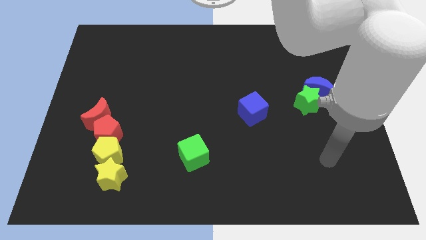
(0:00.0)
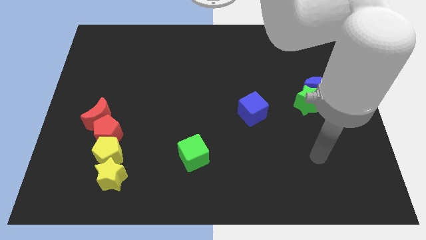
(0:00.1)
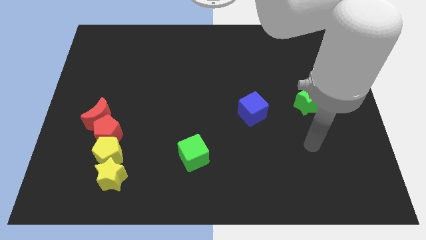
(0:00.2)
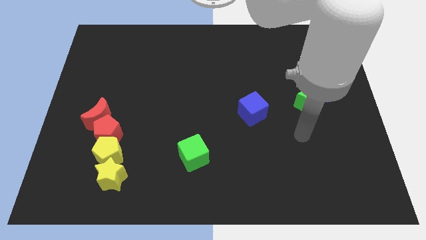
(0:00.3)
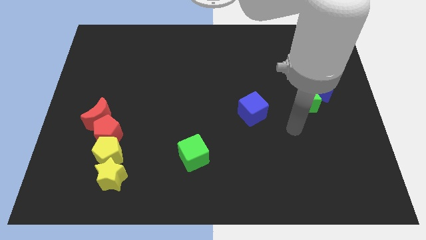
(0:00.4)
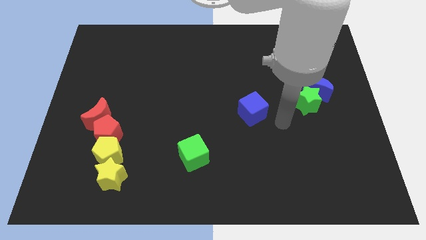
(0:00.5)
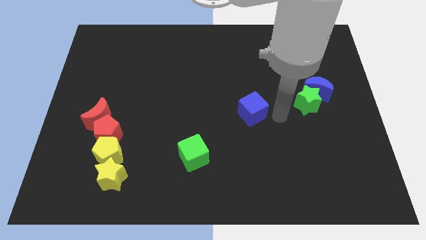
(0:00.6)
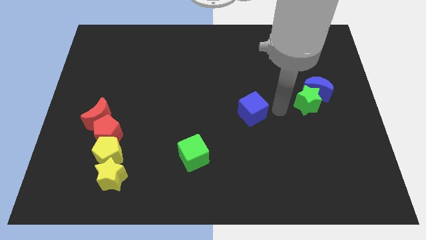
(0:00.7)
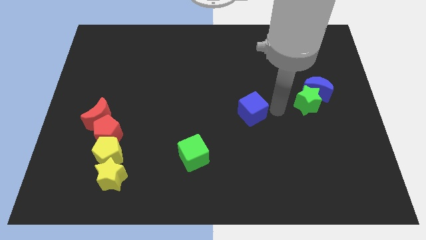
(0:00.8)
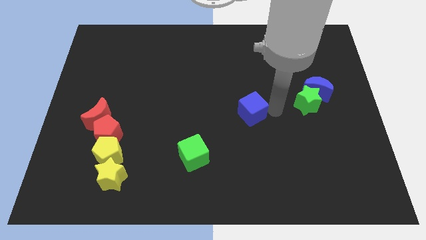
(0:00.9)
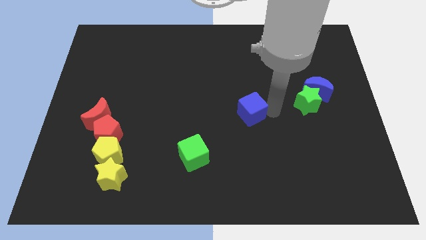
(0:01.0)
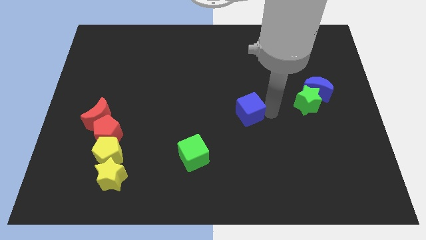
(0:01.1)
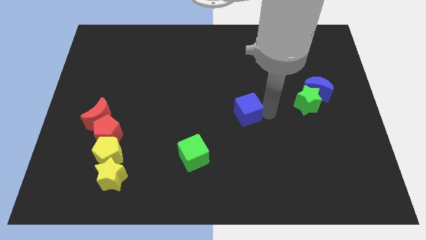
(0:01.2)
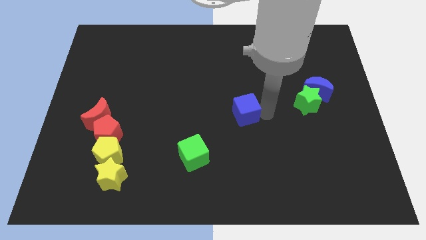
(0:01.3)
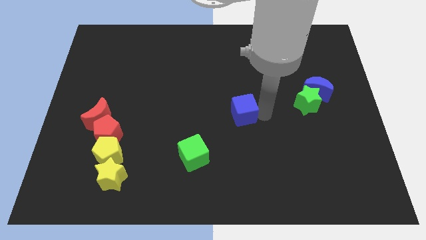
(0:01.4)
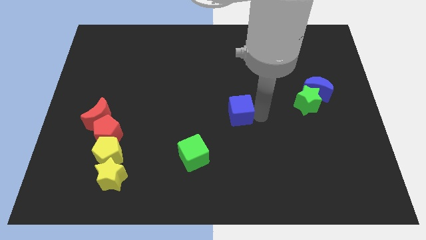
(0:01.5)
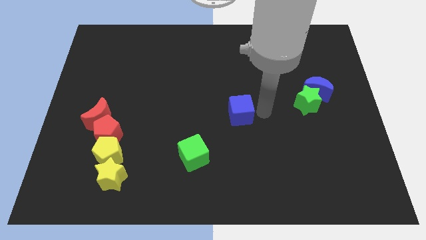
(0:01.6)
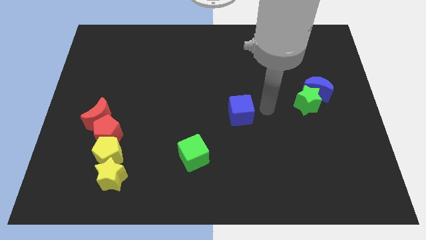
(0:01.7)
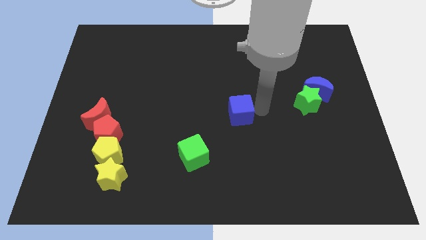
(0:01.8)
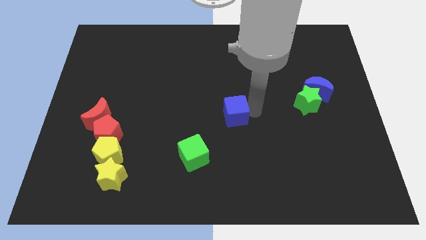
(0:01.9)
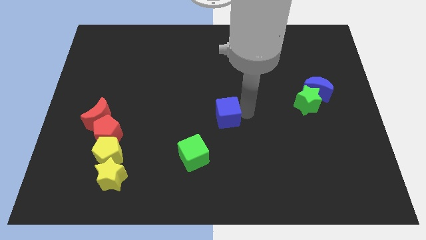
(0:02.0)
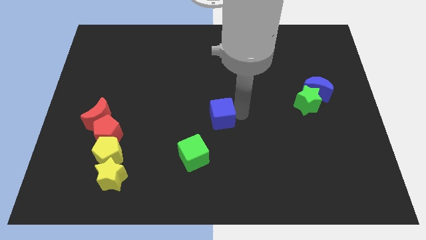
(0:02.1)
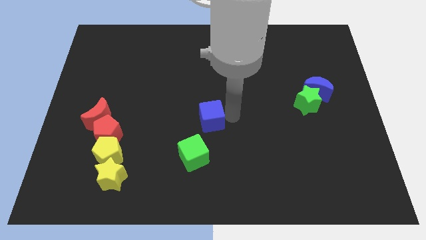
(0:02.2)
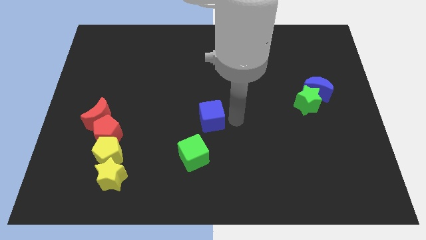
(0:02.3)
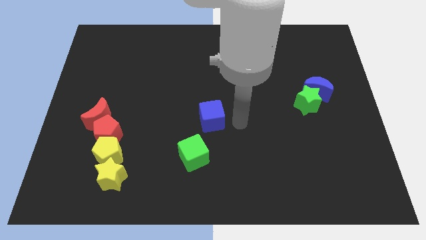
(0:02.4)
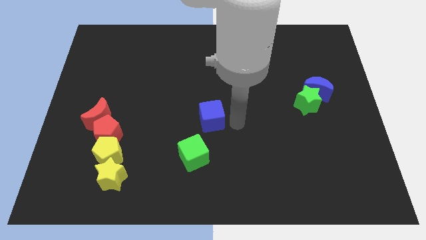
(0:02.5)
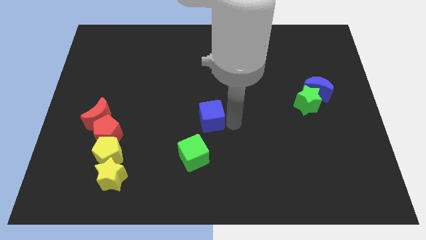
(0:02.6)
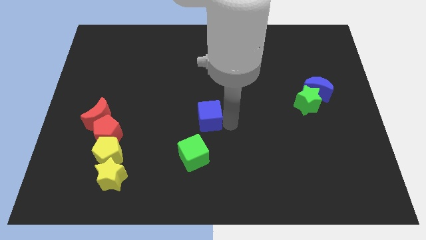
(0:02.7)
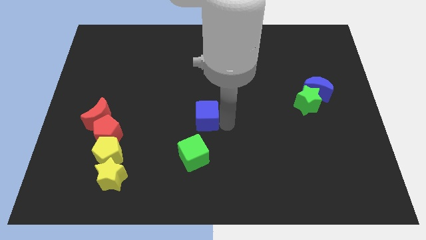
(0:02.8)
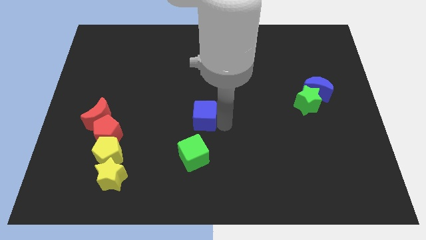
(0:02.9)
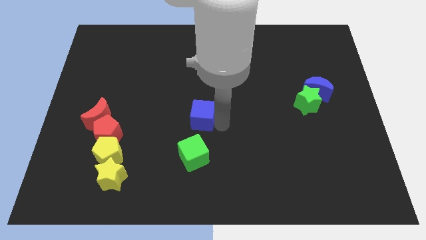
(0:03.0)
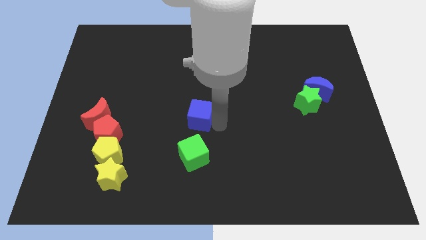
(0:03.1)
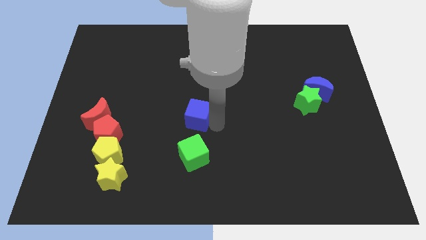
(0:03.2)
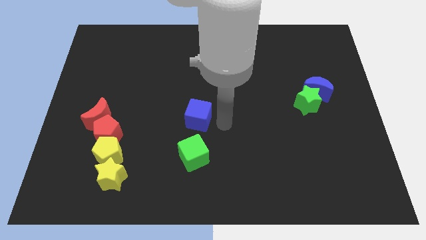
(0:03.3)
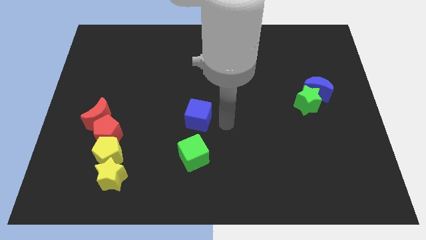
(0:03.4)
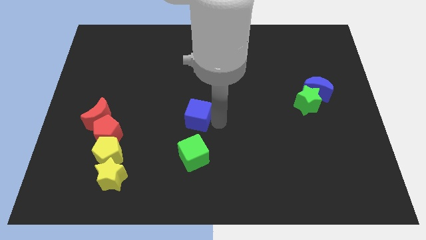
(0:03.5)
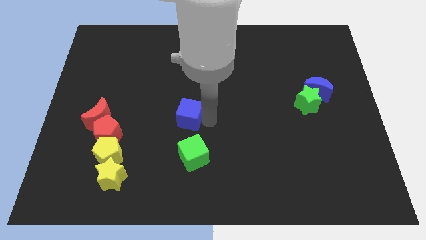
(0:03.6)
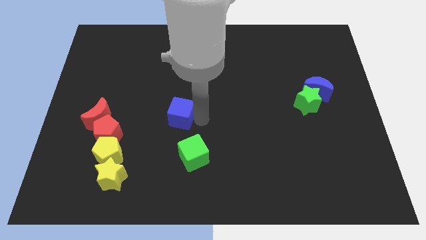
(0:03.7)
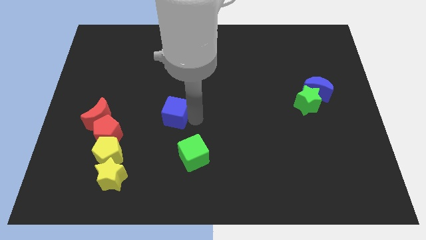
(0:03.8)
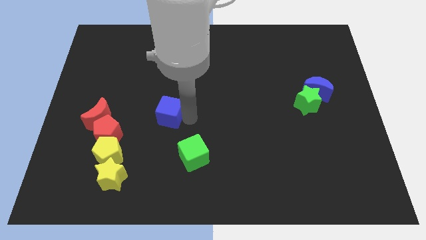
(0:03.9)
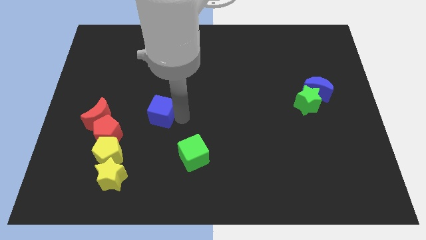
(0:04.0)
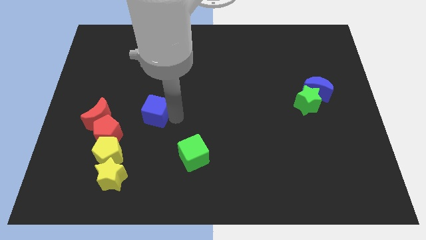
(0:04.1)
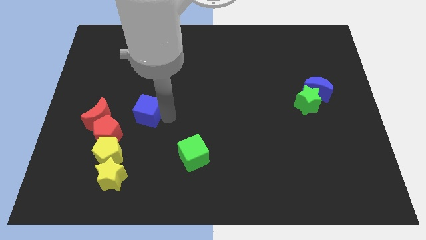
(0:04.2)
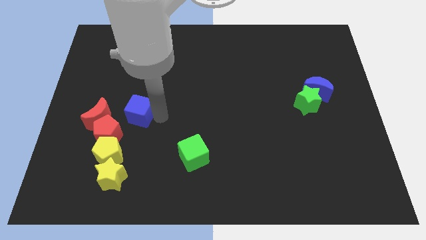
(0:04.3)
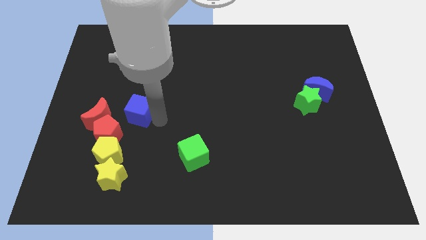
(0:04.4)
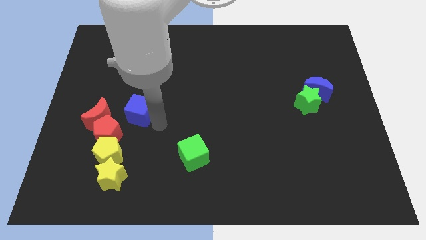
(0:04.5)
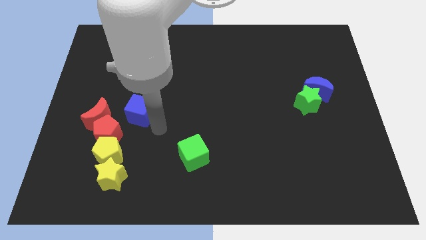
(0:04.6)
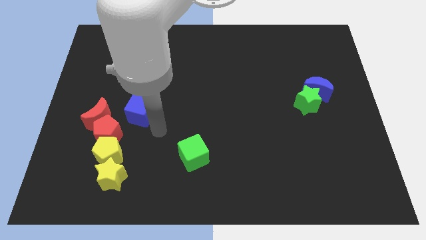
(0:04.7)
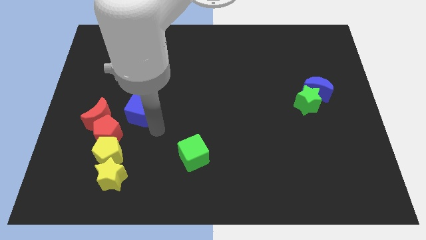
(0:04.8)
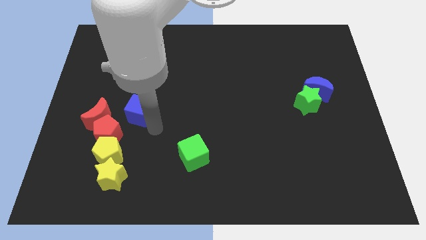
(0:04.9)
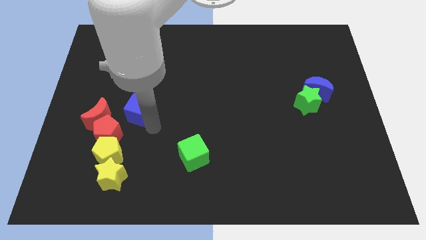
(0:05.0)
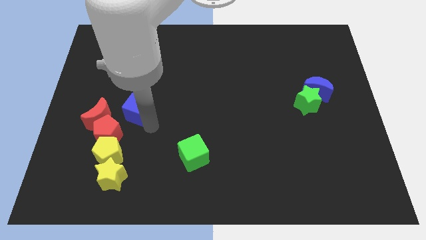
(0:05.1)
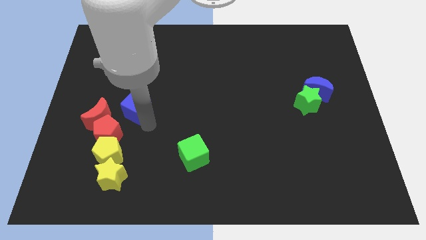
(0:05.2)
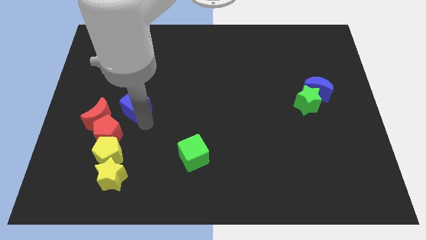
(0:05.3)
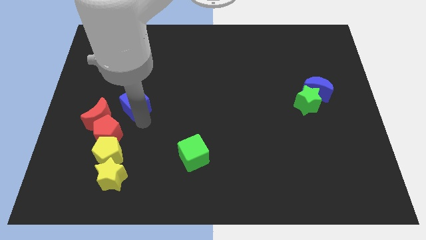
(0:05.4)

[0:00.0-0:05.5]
put the blue cube to the top side of the red pentagon

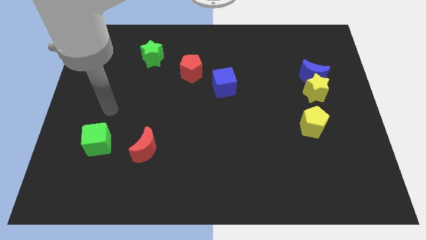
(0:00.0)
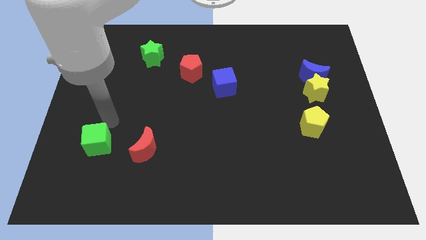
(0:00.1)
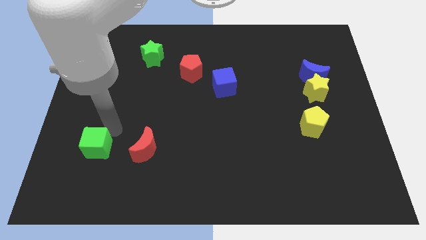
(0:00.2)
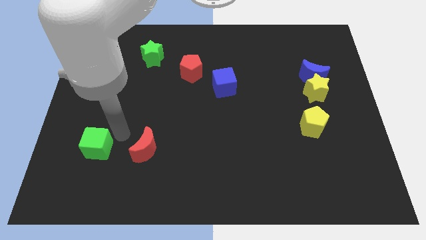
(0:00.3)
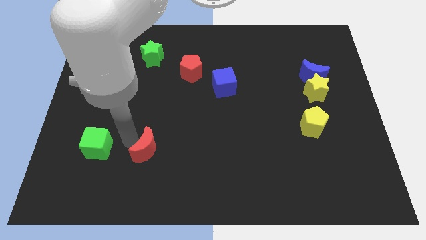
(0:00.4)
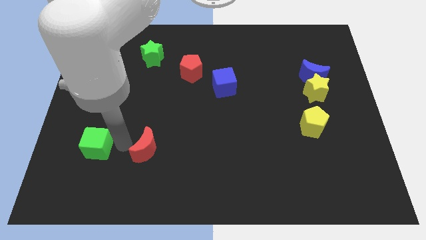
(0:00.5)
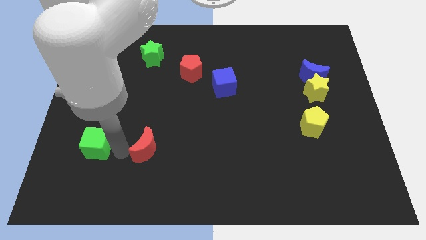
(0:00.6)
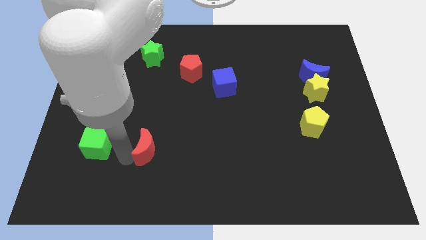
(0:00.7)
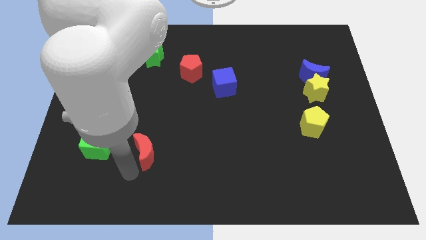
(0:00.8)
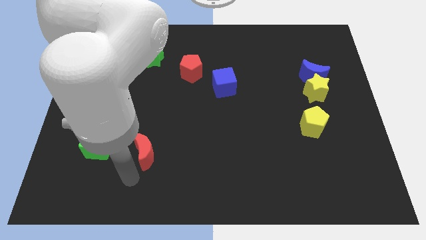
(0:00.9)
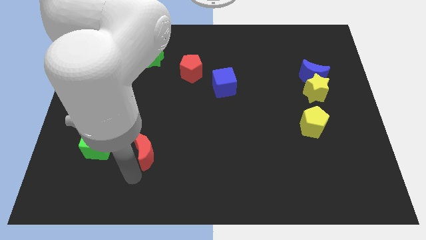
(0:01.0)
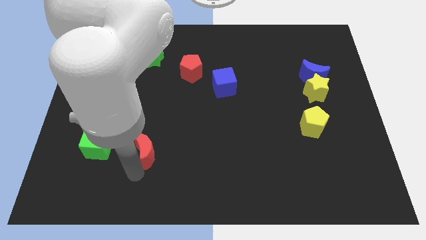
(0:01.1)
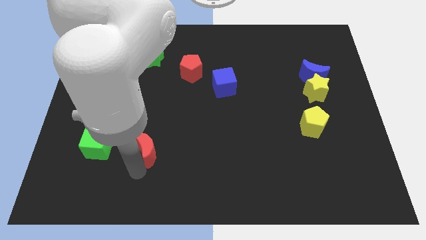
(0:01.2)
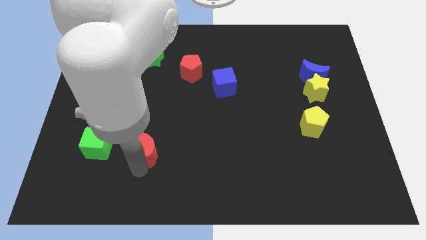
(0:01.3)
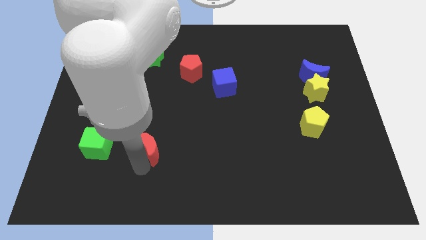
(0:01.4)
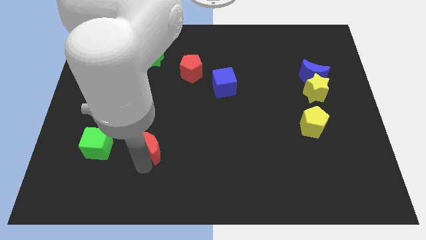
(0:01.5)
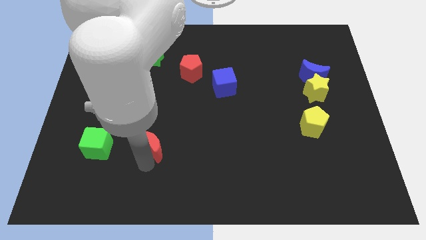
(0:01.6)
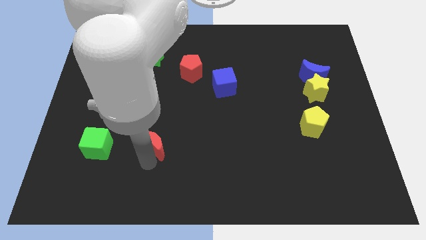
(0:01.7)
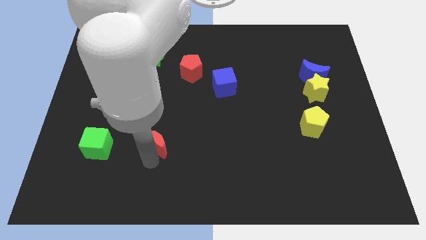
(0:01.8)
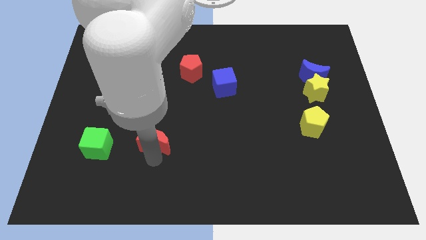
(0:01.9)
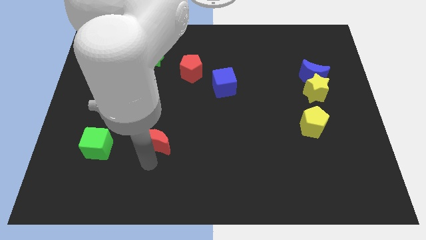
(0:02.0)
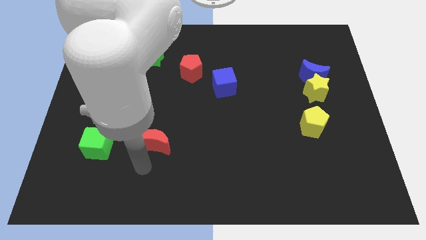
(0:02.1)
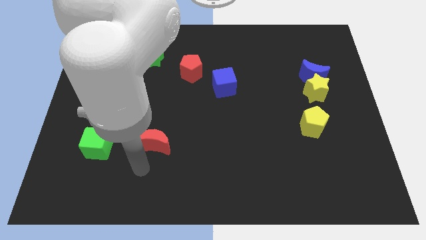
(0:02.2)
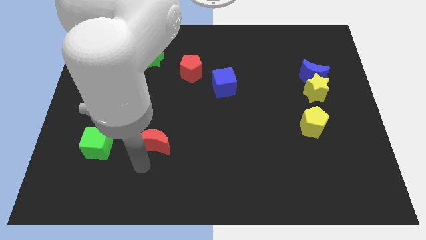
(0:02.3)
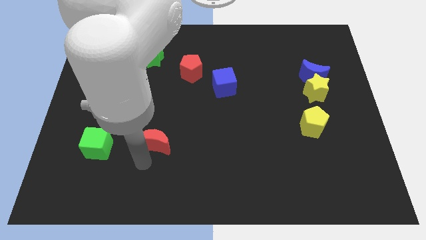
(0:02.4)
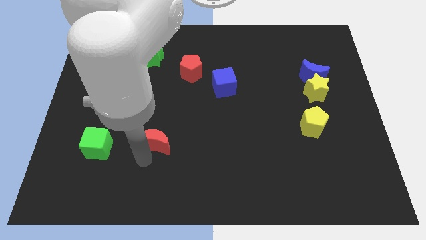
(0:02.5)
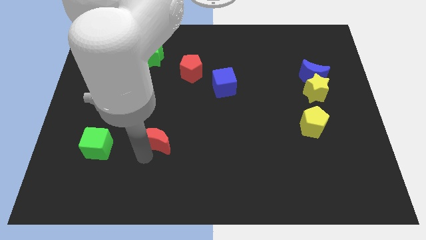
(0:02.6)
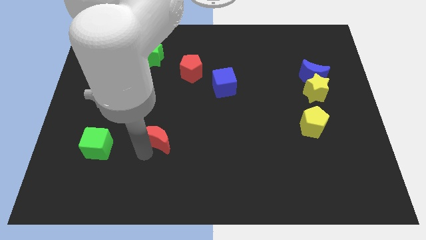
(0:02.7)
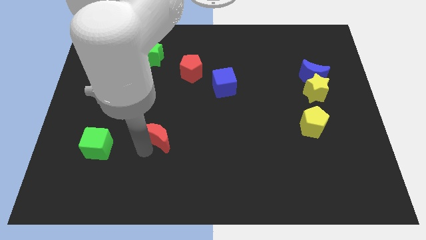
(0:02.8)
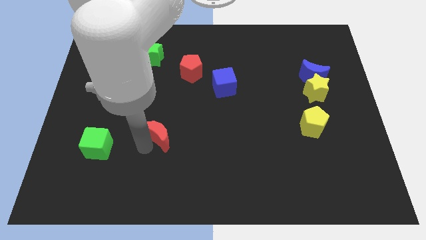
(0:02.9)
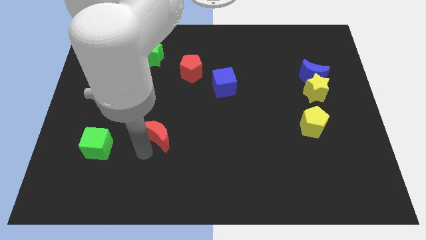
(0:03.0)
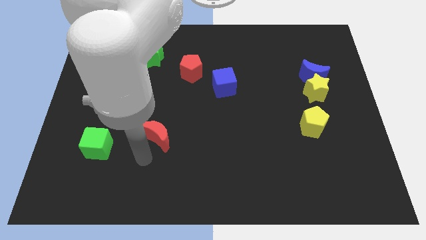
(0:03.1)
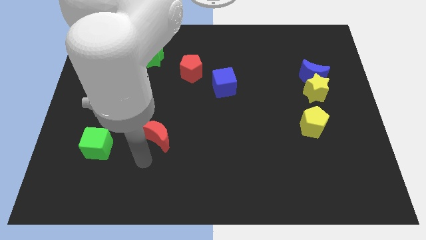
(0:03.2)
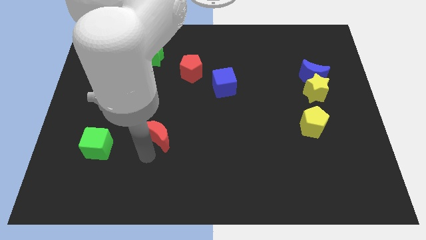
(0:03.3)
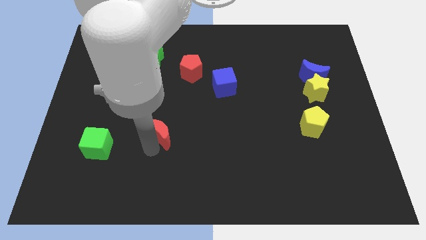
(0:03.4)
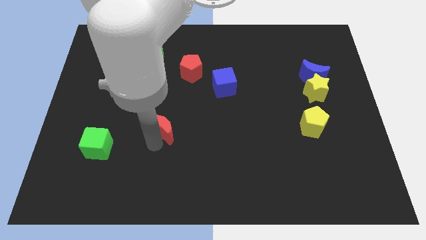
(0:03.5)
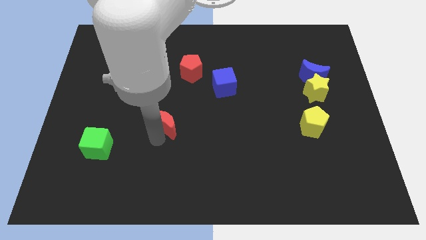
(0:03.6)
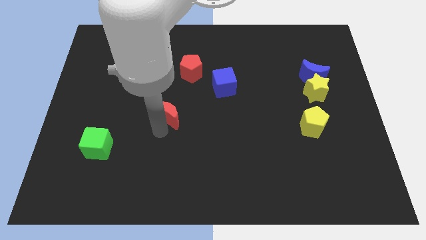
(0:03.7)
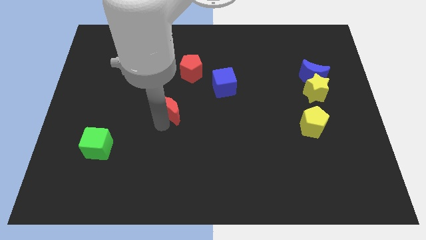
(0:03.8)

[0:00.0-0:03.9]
push the red moon to the bottom side of the red pentagon
